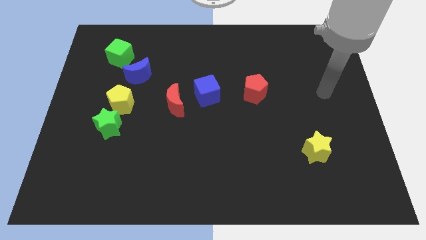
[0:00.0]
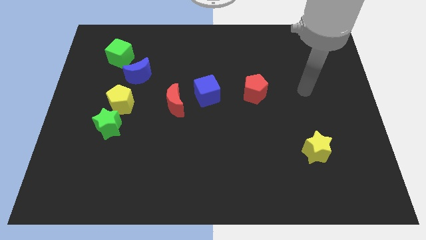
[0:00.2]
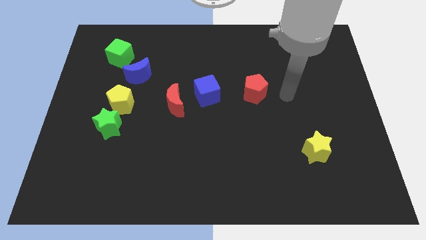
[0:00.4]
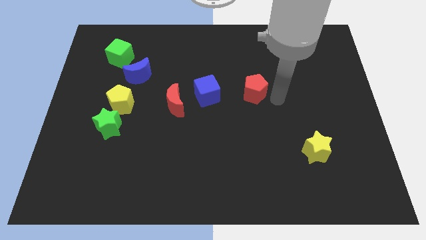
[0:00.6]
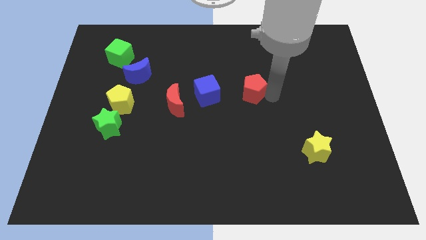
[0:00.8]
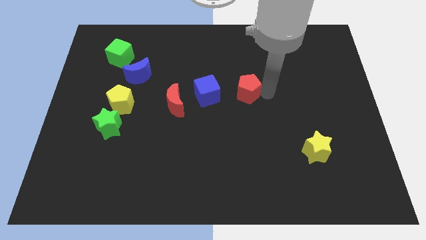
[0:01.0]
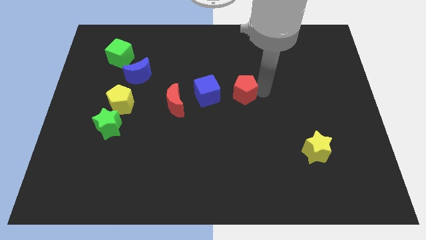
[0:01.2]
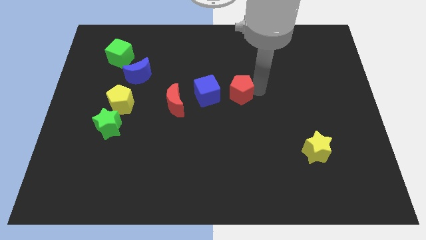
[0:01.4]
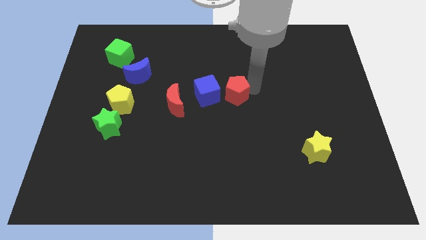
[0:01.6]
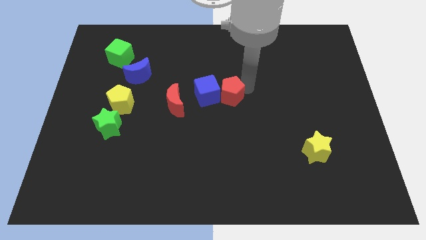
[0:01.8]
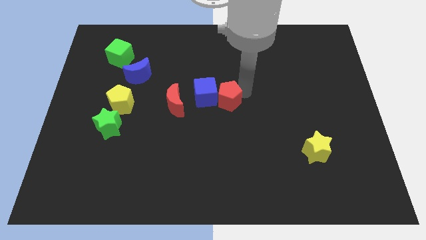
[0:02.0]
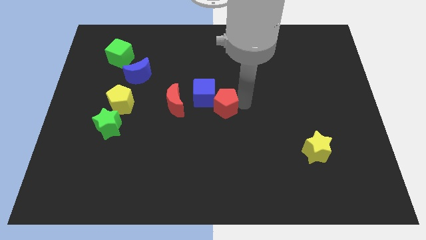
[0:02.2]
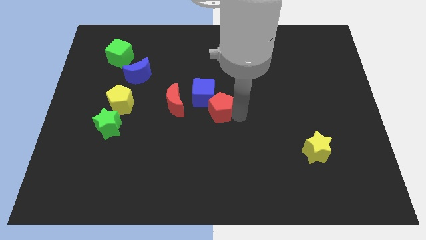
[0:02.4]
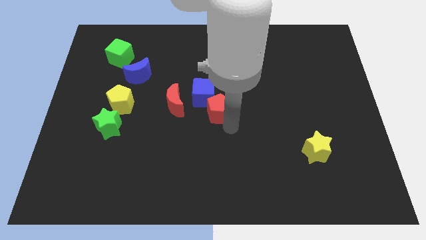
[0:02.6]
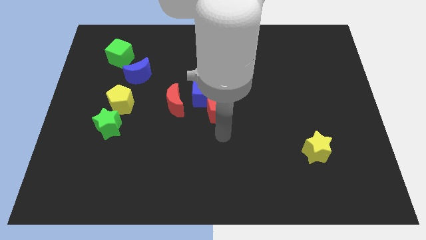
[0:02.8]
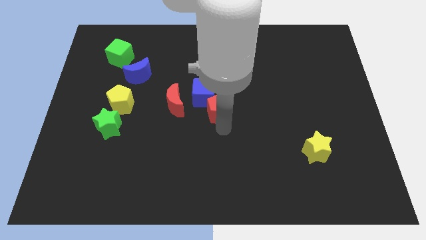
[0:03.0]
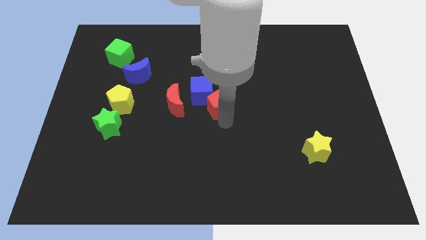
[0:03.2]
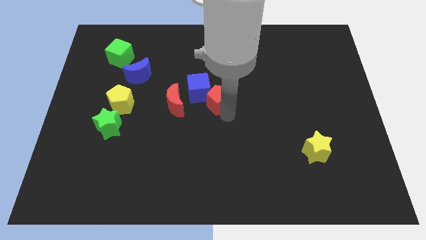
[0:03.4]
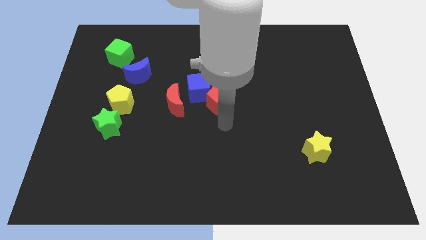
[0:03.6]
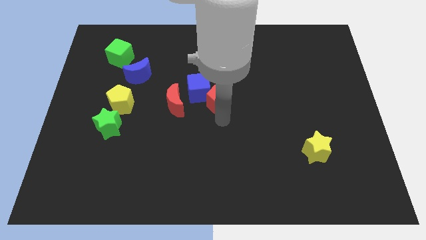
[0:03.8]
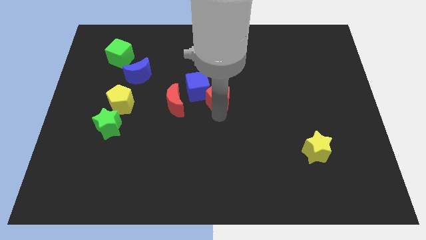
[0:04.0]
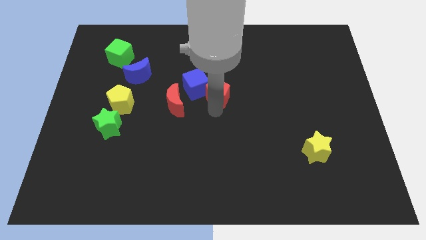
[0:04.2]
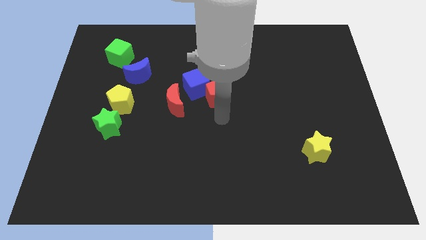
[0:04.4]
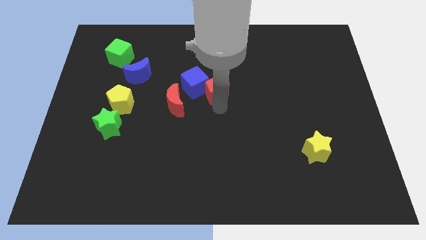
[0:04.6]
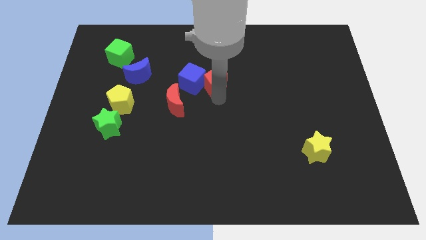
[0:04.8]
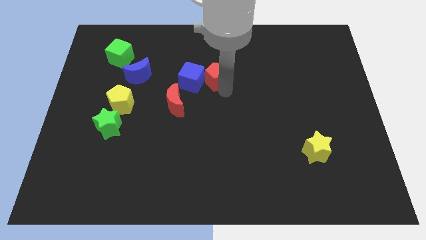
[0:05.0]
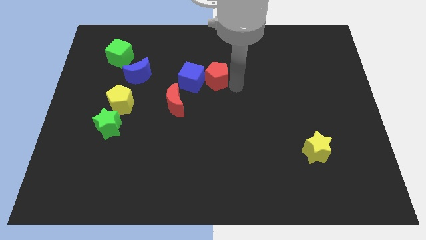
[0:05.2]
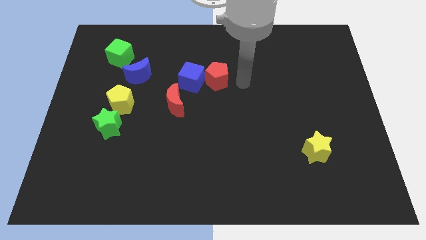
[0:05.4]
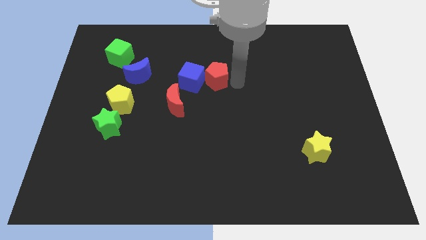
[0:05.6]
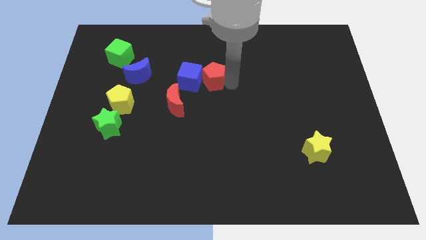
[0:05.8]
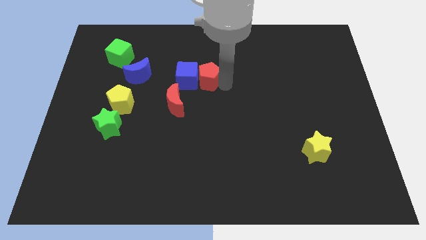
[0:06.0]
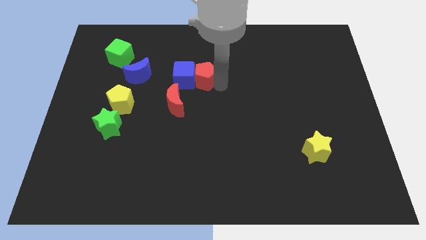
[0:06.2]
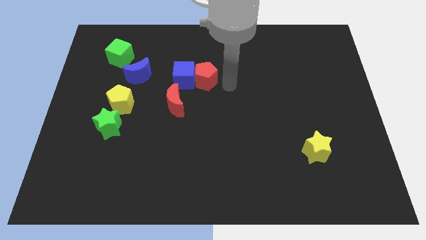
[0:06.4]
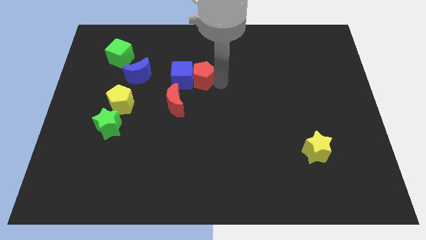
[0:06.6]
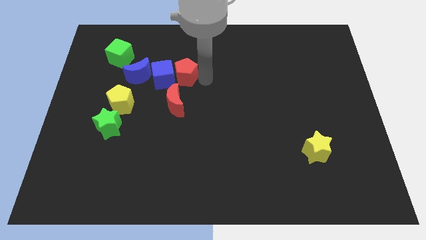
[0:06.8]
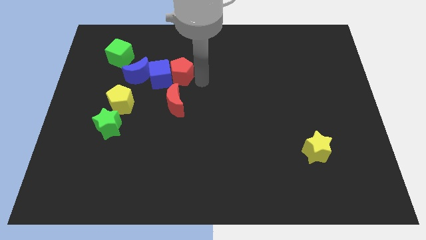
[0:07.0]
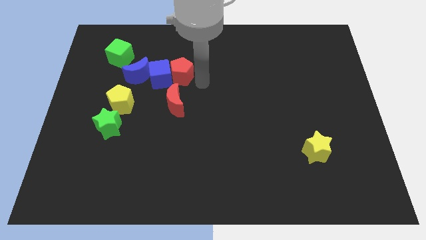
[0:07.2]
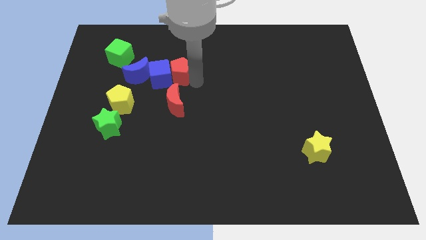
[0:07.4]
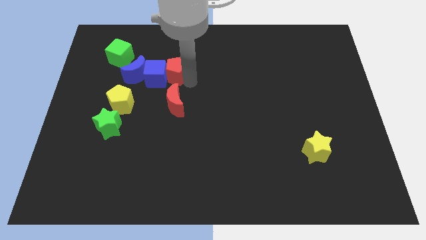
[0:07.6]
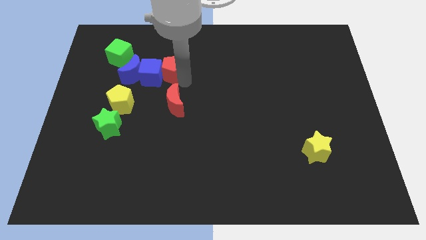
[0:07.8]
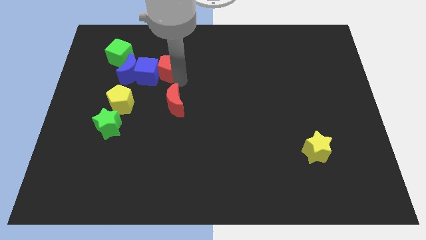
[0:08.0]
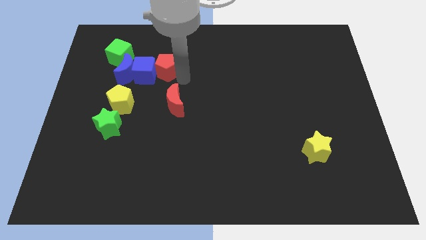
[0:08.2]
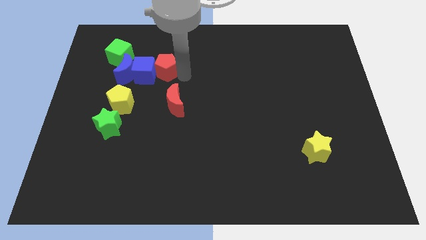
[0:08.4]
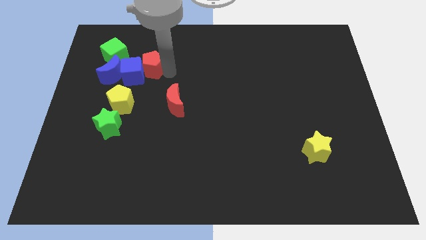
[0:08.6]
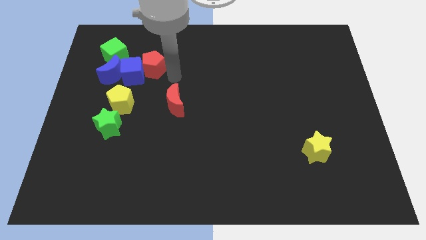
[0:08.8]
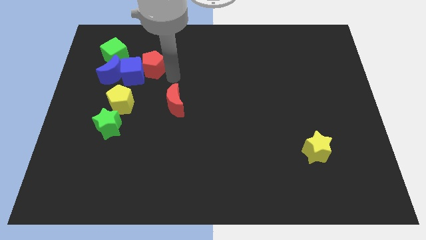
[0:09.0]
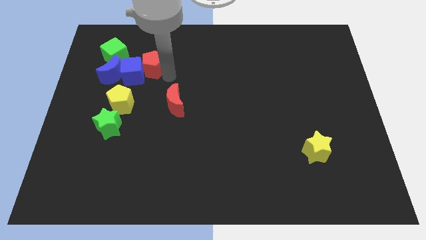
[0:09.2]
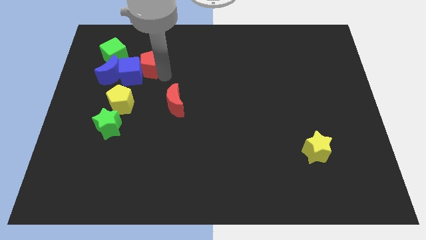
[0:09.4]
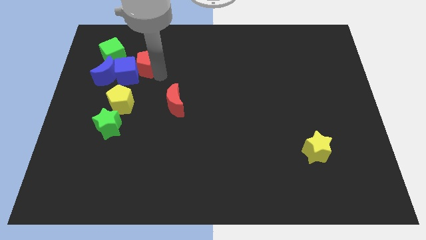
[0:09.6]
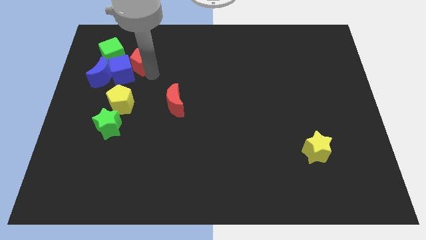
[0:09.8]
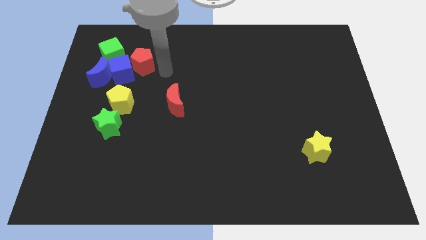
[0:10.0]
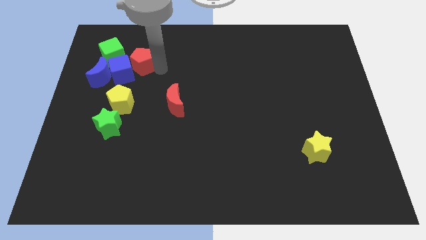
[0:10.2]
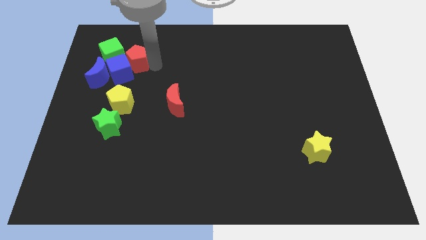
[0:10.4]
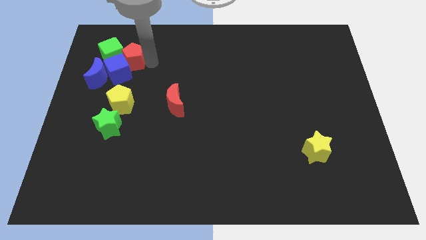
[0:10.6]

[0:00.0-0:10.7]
slide the red pentagon close to the green cube

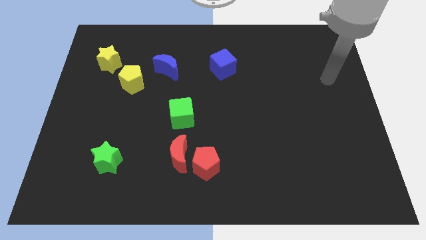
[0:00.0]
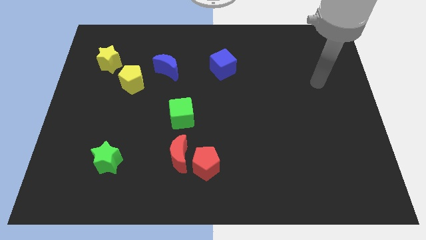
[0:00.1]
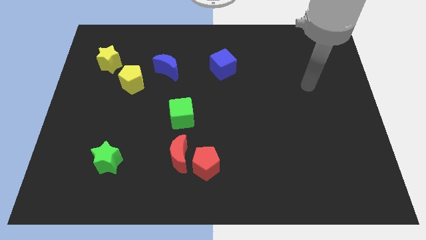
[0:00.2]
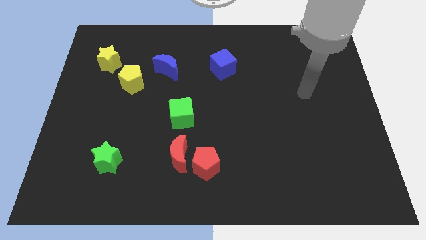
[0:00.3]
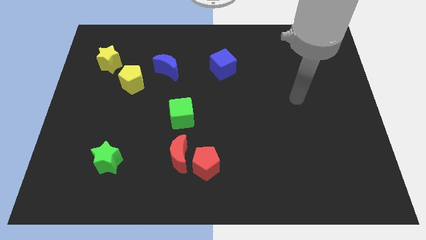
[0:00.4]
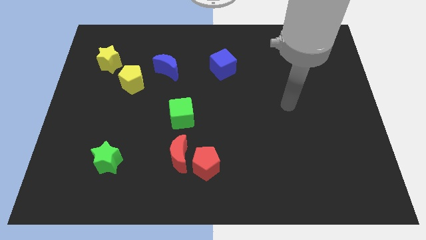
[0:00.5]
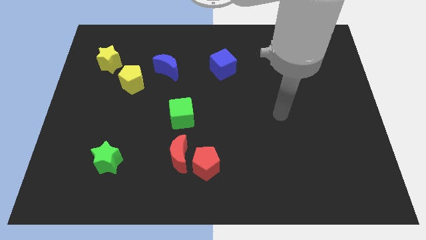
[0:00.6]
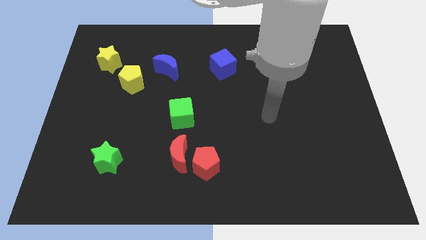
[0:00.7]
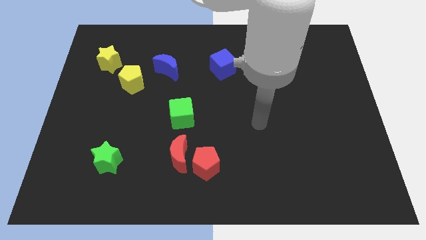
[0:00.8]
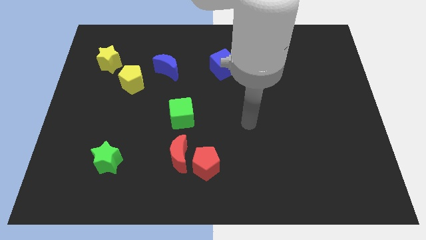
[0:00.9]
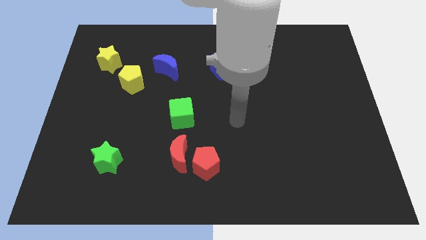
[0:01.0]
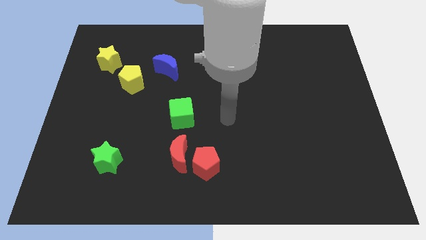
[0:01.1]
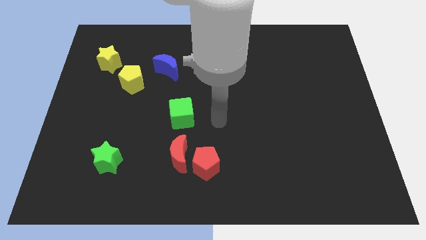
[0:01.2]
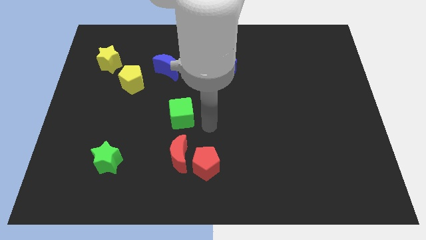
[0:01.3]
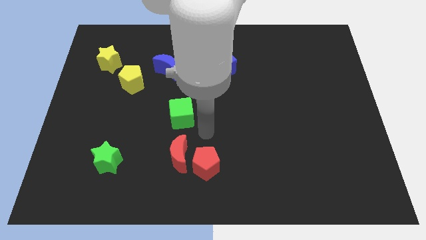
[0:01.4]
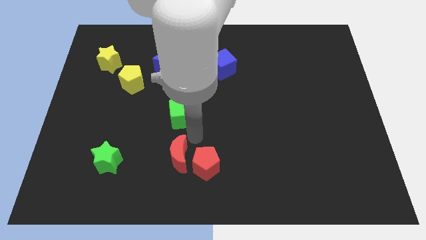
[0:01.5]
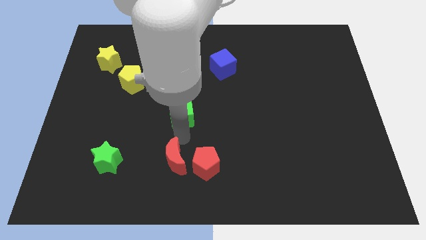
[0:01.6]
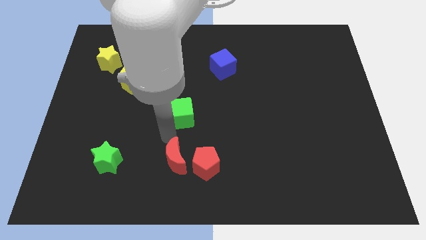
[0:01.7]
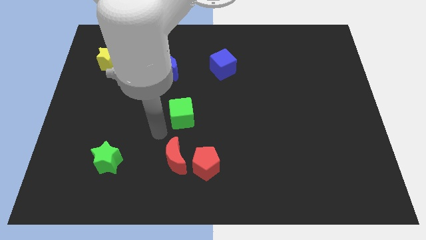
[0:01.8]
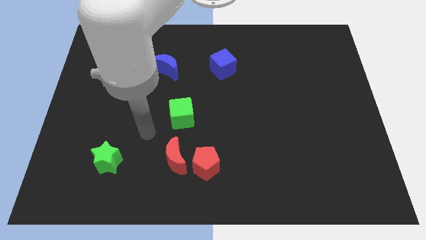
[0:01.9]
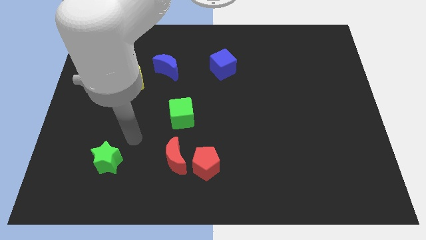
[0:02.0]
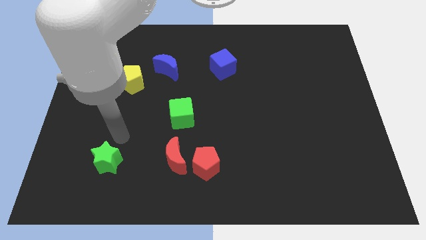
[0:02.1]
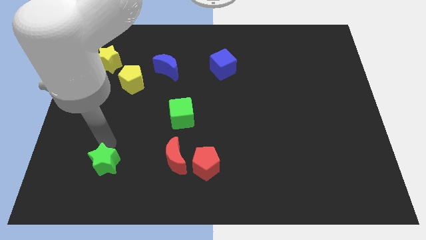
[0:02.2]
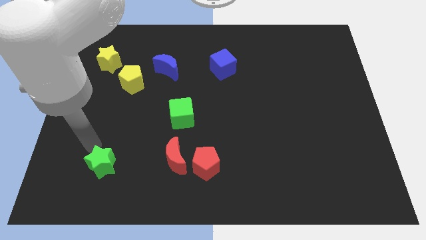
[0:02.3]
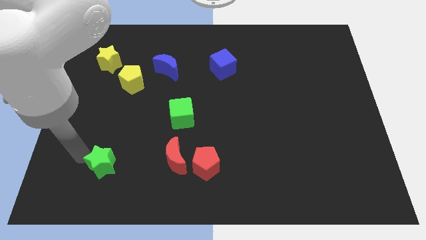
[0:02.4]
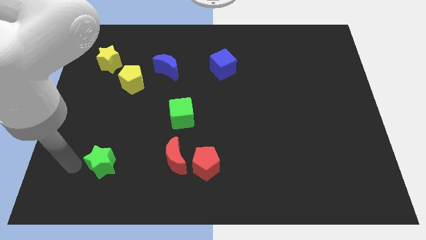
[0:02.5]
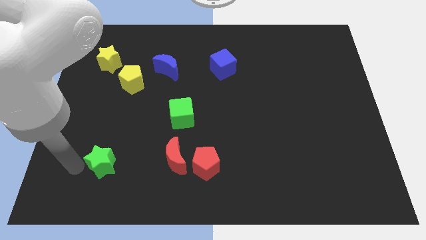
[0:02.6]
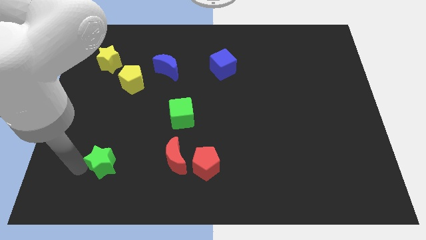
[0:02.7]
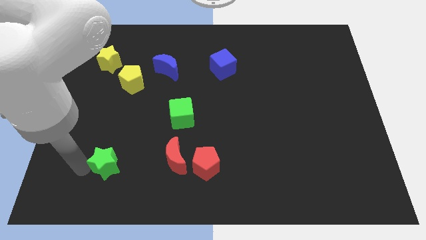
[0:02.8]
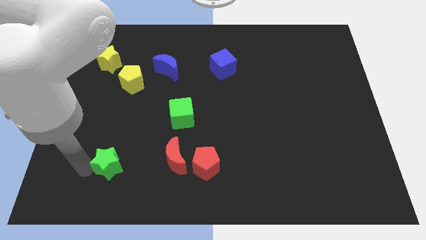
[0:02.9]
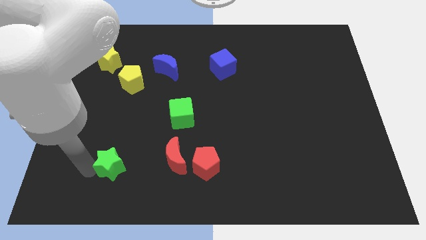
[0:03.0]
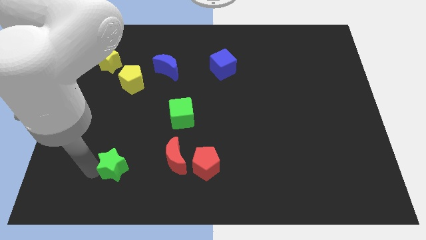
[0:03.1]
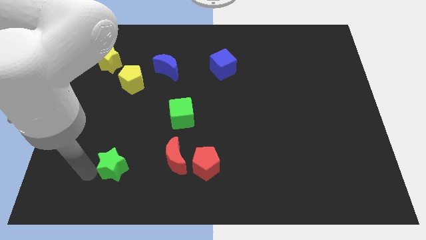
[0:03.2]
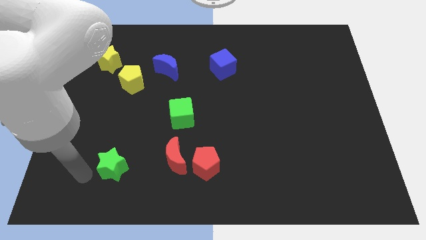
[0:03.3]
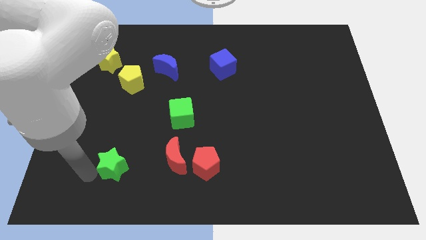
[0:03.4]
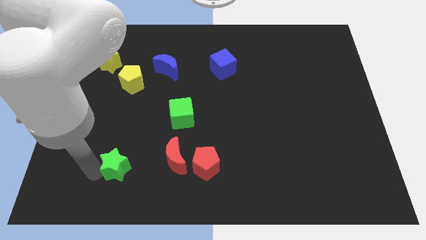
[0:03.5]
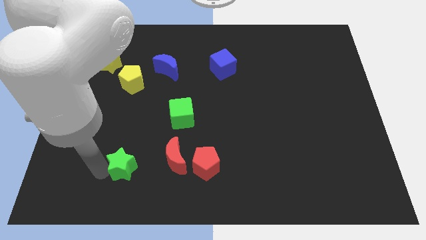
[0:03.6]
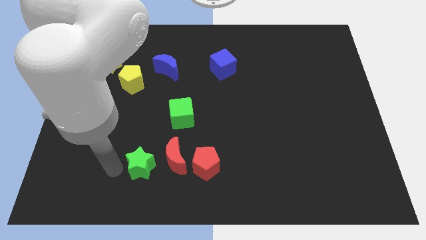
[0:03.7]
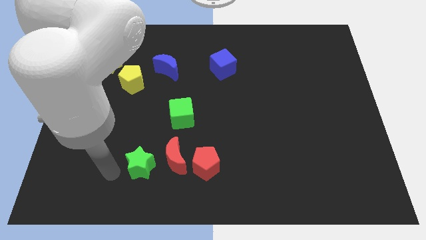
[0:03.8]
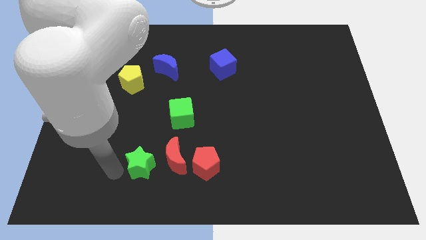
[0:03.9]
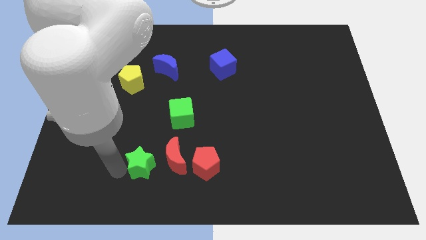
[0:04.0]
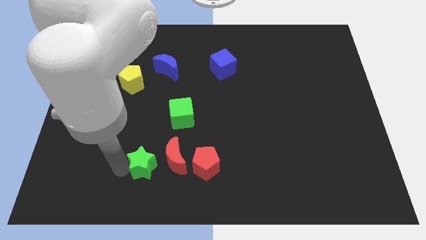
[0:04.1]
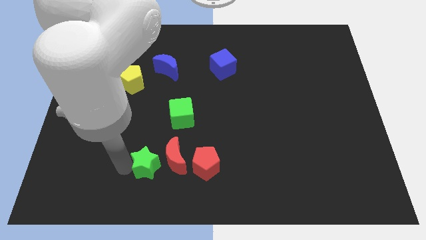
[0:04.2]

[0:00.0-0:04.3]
slide the green star close to the red moon
